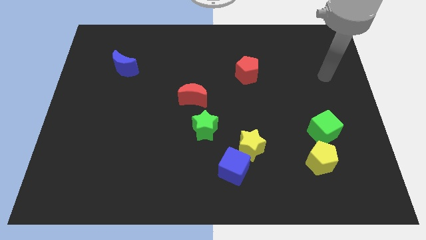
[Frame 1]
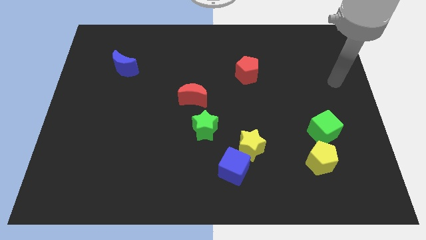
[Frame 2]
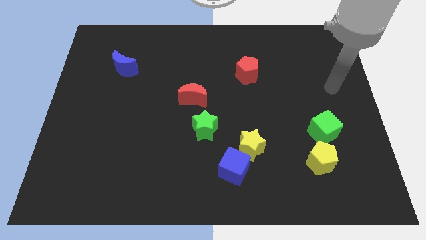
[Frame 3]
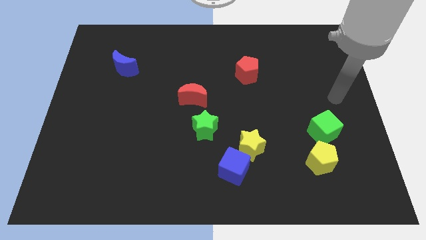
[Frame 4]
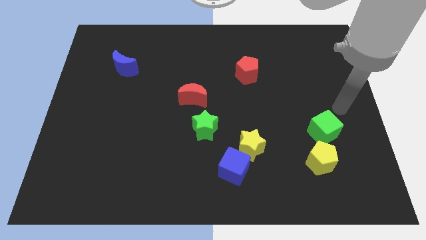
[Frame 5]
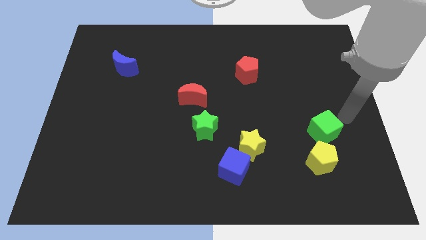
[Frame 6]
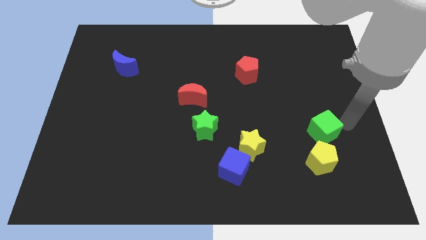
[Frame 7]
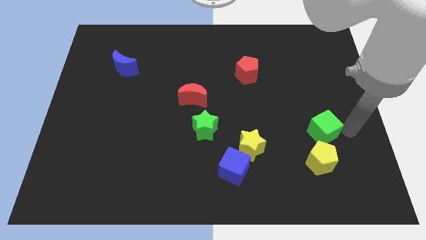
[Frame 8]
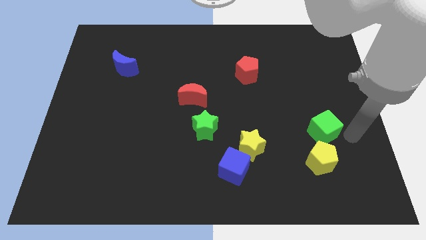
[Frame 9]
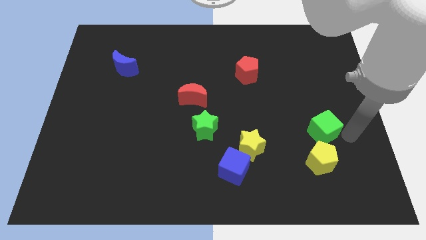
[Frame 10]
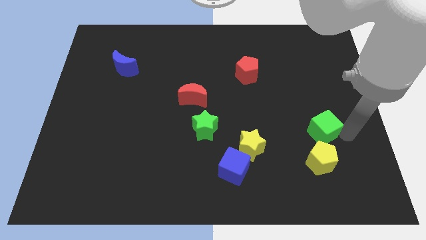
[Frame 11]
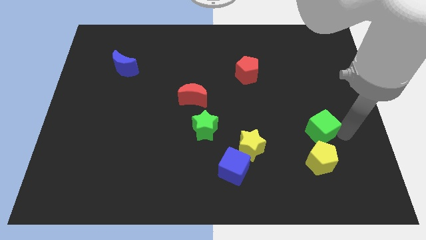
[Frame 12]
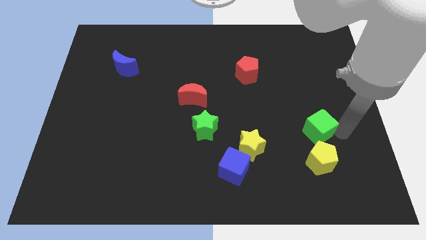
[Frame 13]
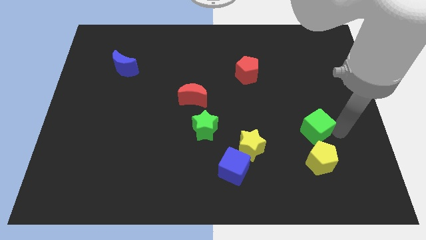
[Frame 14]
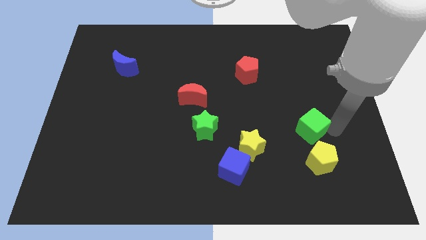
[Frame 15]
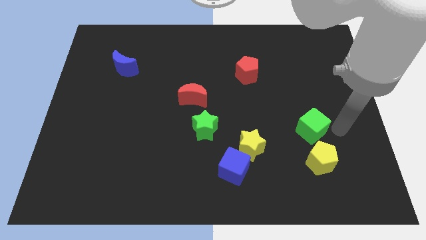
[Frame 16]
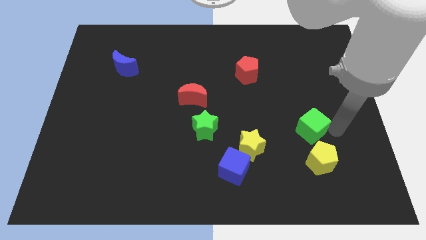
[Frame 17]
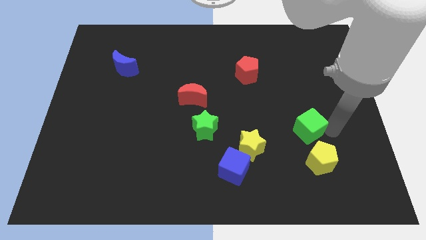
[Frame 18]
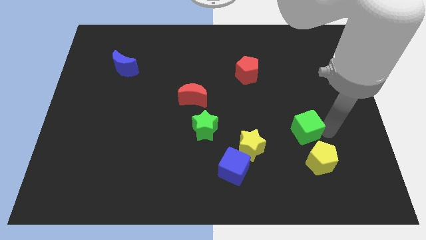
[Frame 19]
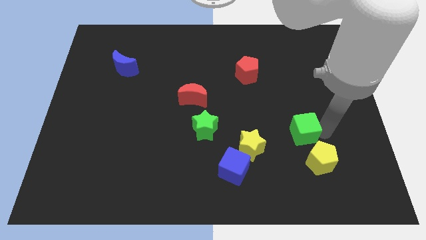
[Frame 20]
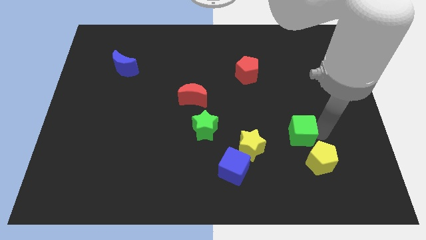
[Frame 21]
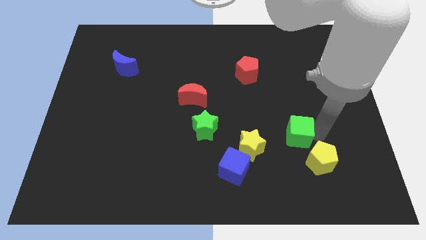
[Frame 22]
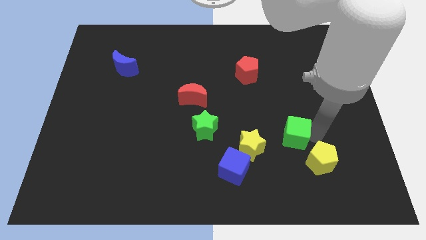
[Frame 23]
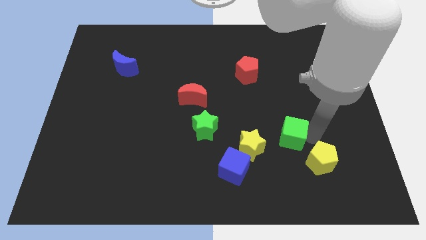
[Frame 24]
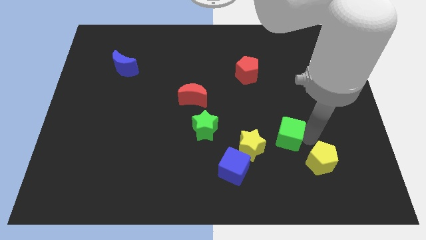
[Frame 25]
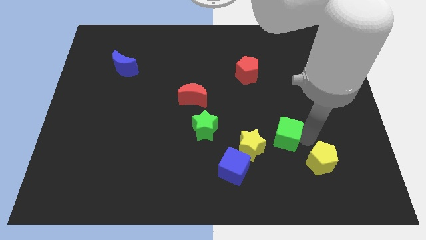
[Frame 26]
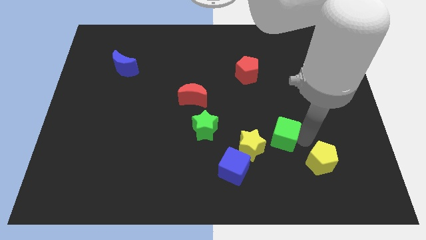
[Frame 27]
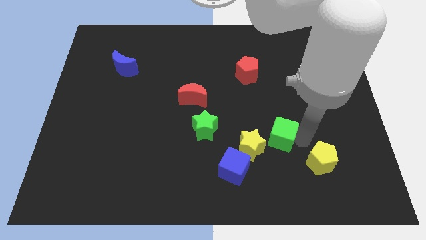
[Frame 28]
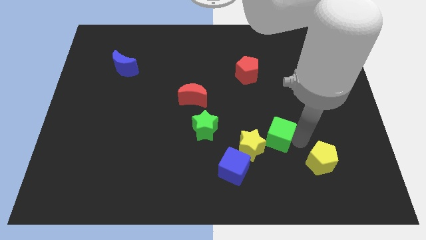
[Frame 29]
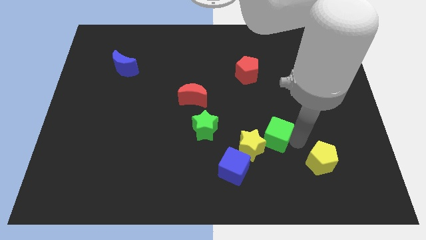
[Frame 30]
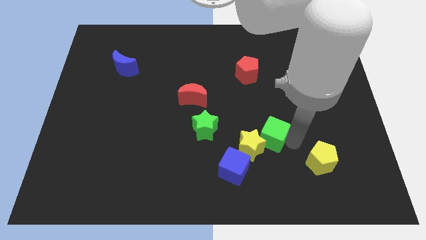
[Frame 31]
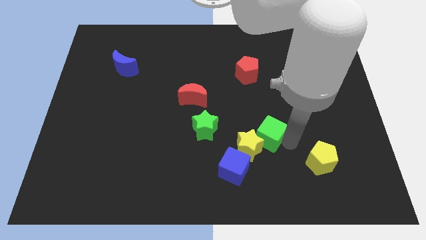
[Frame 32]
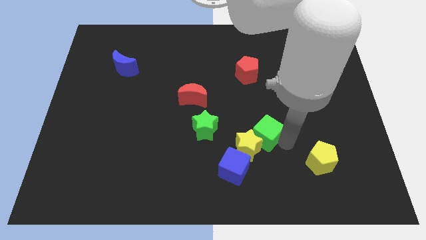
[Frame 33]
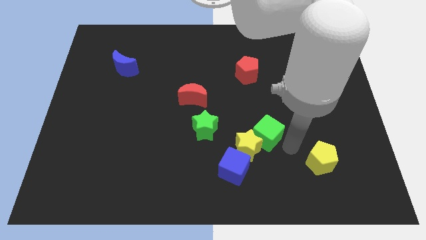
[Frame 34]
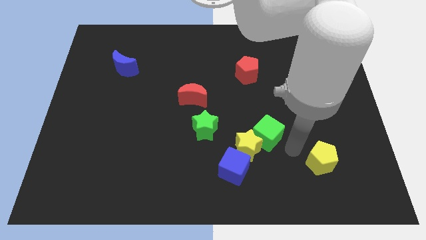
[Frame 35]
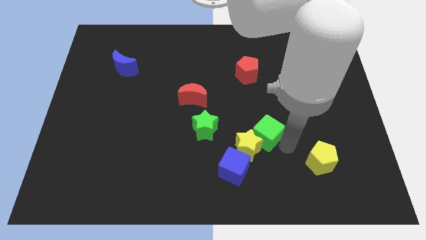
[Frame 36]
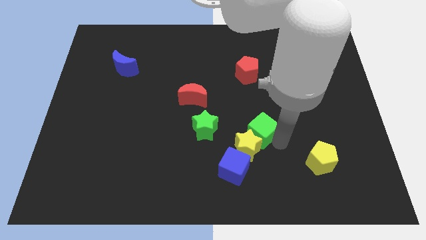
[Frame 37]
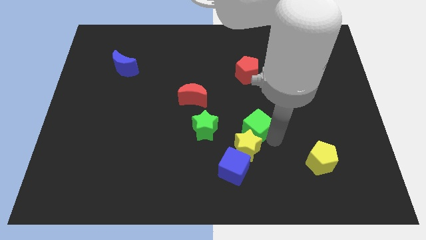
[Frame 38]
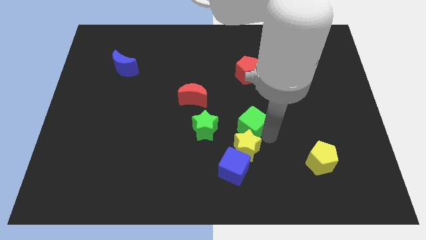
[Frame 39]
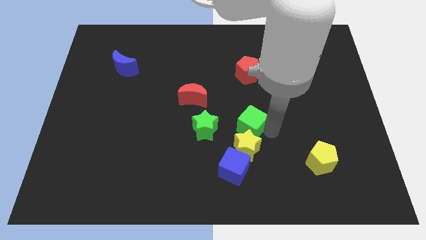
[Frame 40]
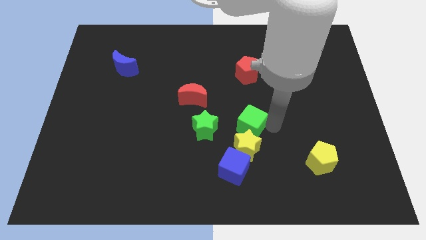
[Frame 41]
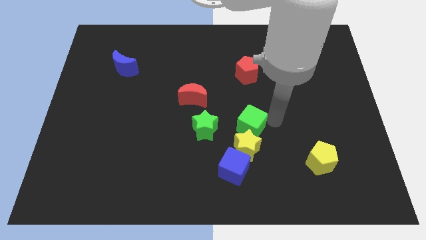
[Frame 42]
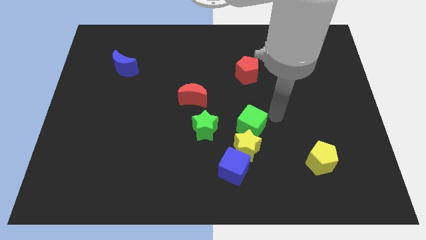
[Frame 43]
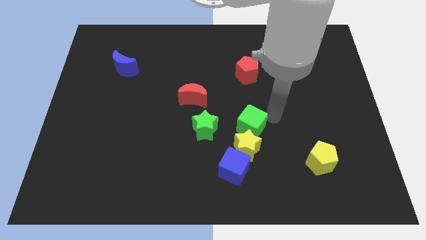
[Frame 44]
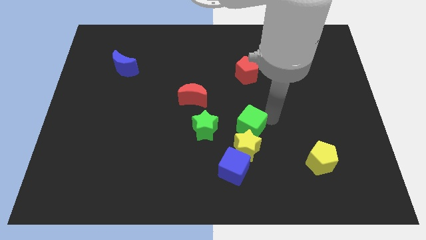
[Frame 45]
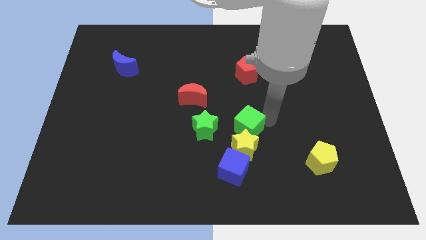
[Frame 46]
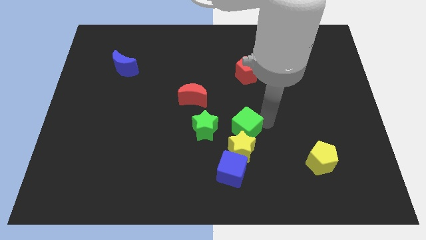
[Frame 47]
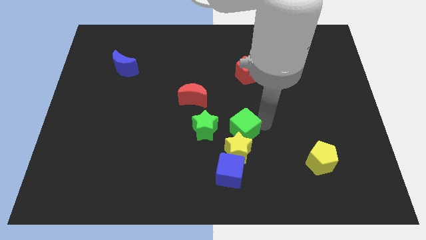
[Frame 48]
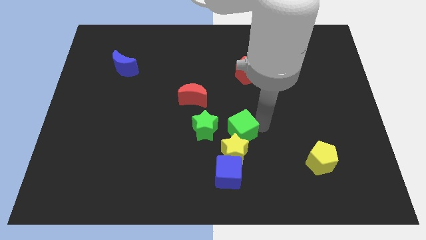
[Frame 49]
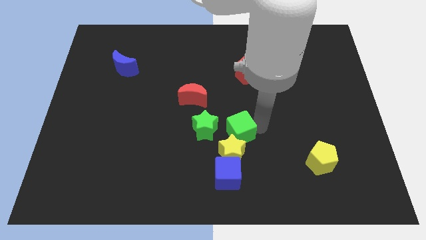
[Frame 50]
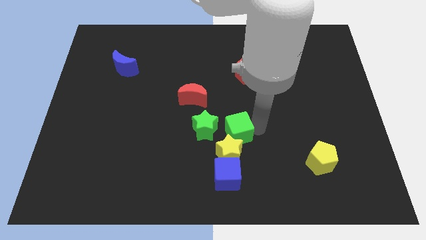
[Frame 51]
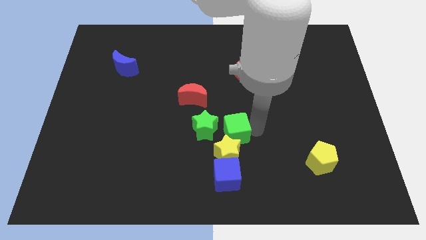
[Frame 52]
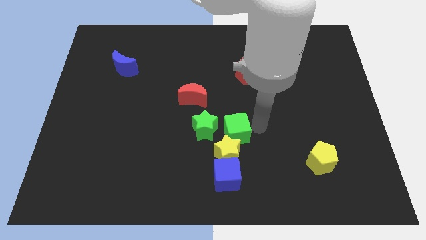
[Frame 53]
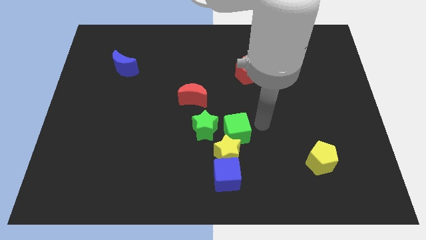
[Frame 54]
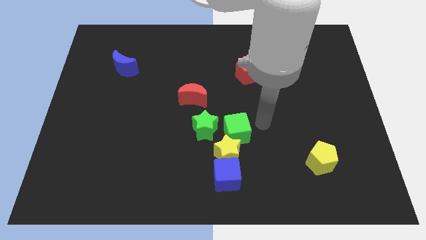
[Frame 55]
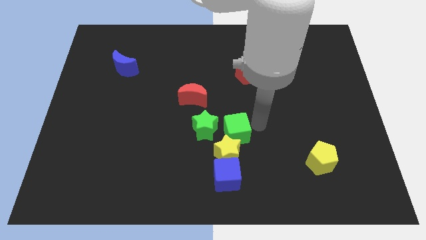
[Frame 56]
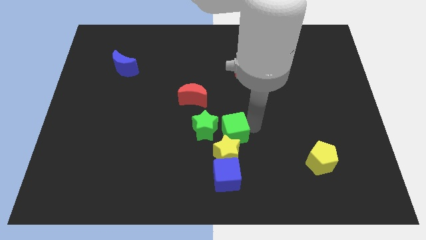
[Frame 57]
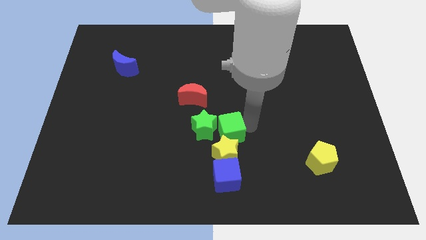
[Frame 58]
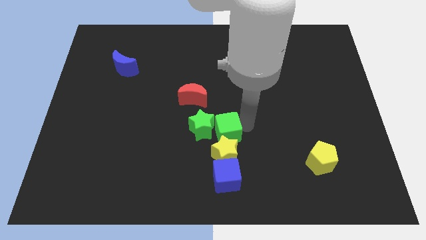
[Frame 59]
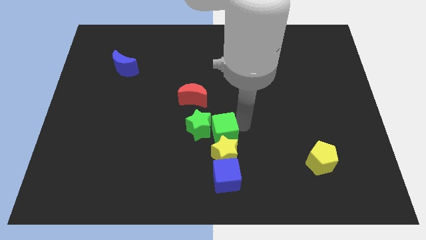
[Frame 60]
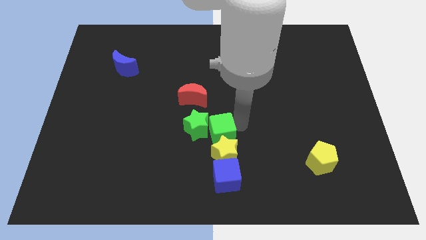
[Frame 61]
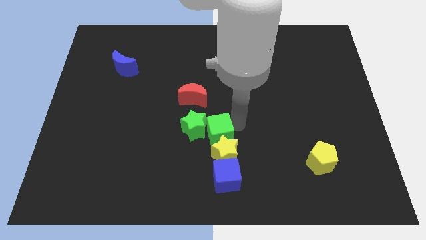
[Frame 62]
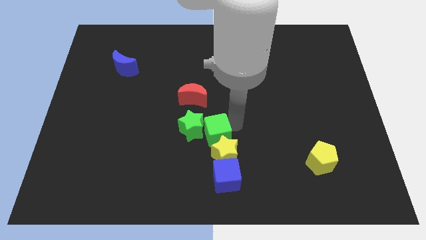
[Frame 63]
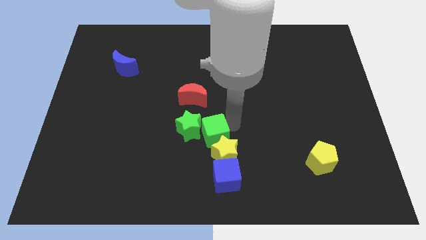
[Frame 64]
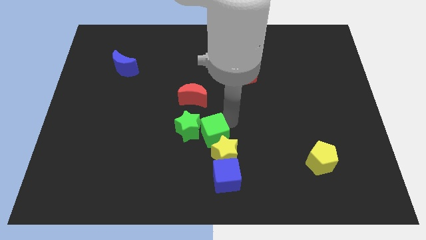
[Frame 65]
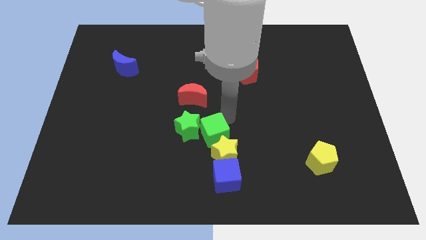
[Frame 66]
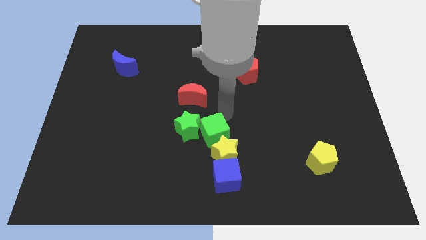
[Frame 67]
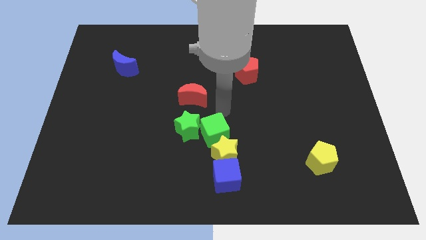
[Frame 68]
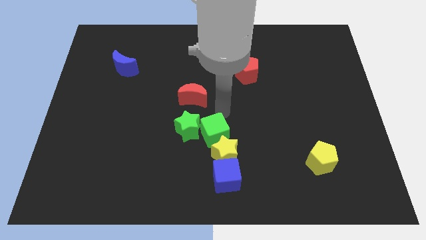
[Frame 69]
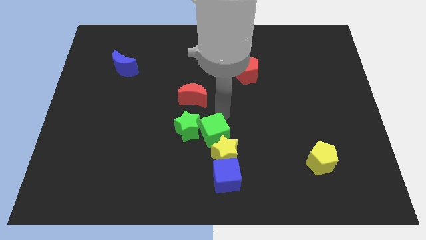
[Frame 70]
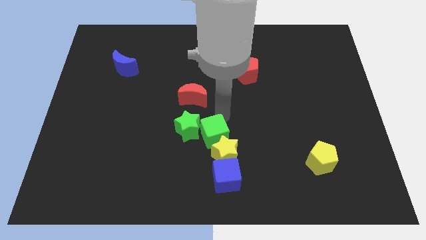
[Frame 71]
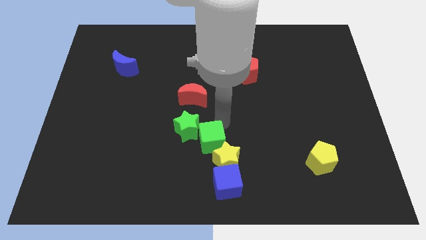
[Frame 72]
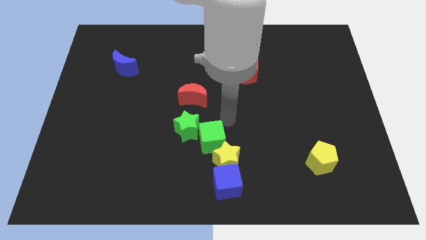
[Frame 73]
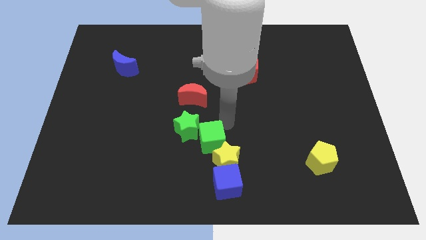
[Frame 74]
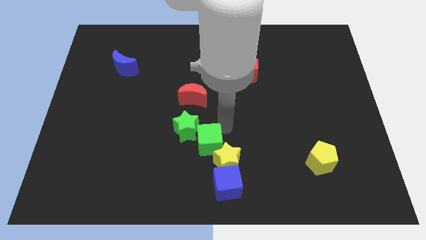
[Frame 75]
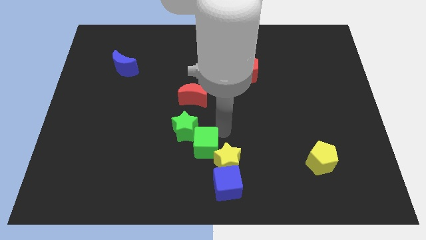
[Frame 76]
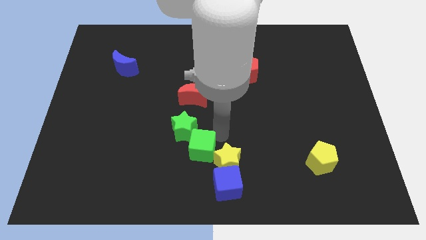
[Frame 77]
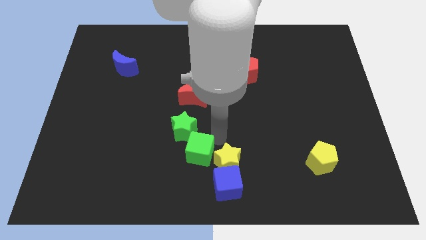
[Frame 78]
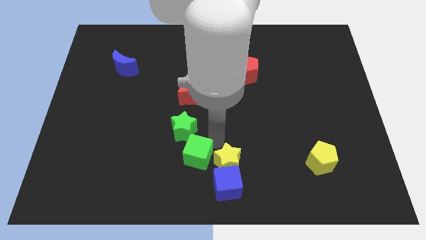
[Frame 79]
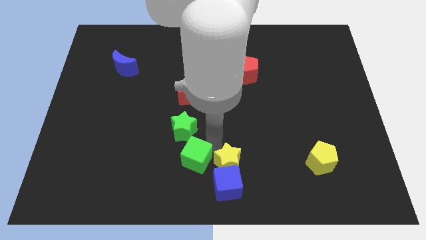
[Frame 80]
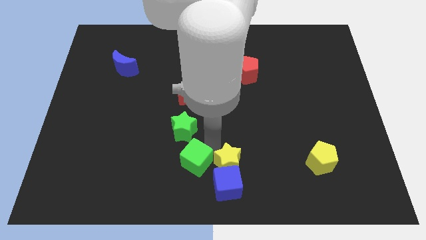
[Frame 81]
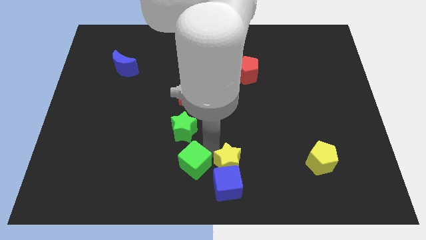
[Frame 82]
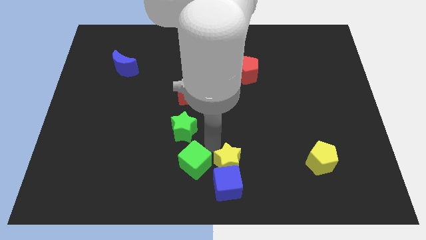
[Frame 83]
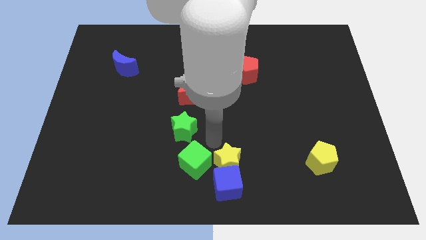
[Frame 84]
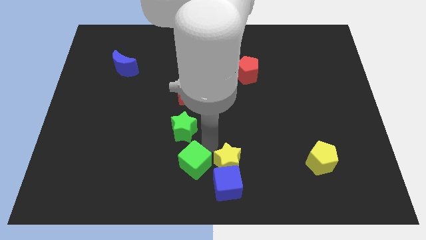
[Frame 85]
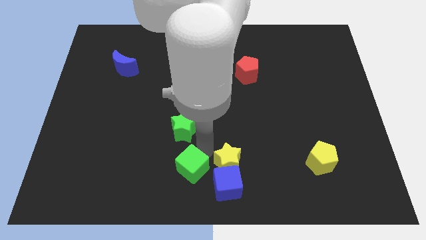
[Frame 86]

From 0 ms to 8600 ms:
move the green cube to the left side of the blue cube
